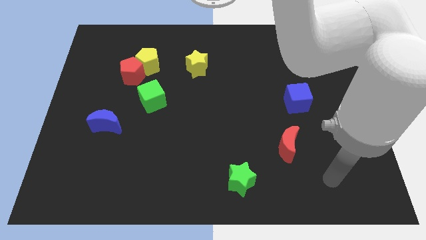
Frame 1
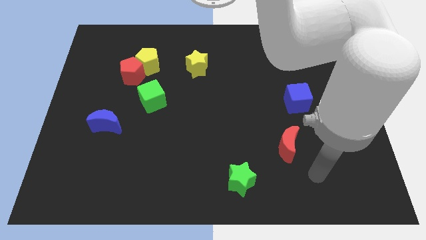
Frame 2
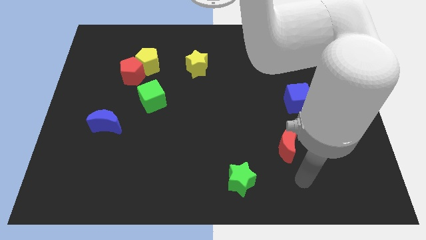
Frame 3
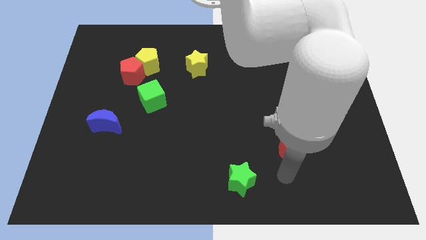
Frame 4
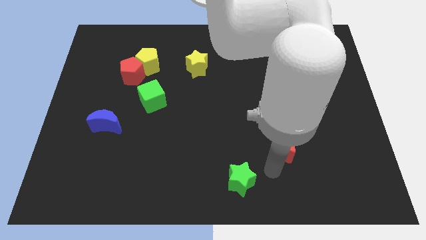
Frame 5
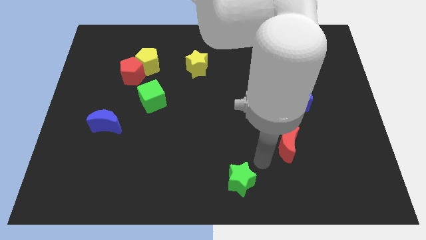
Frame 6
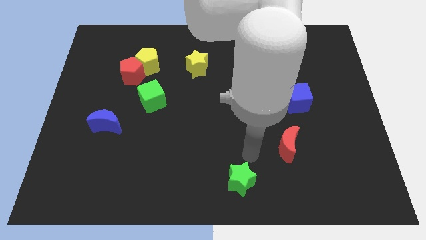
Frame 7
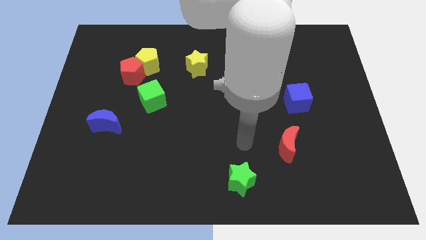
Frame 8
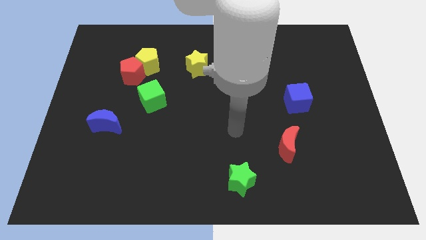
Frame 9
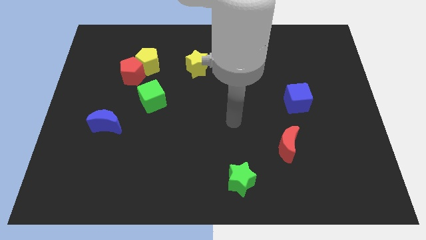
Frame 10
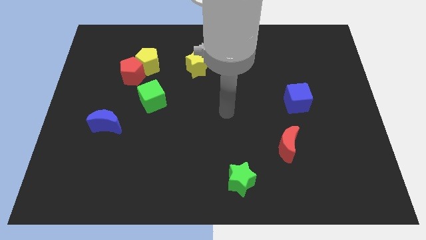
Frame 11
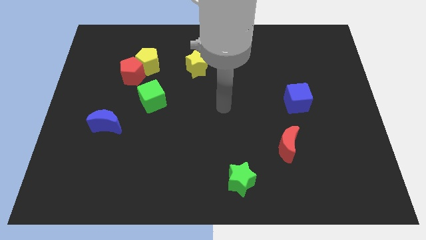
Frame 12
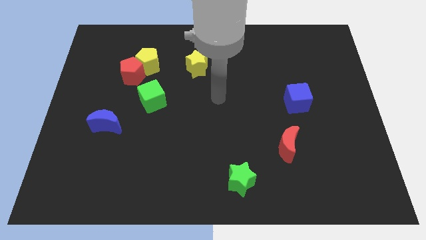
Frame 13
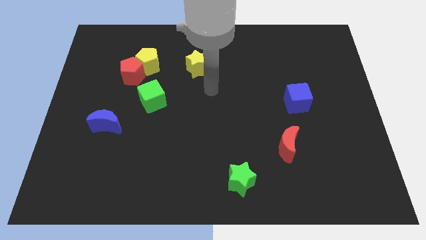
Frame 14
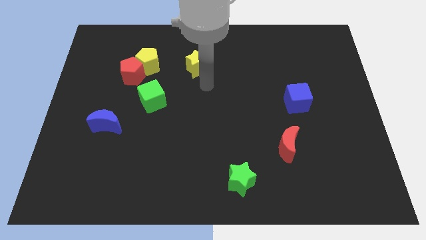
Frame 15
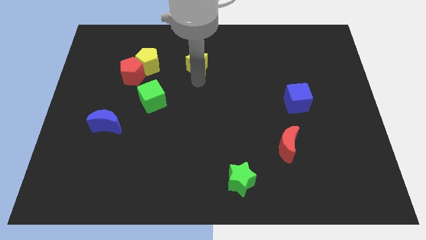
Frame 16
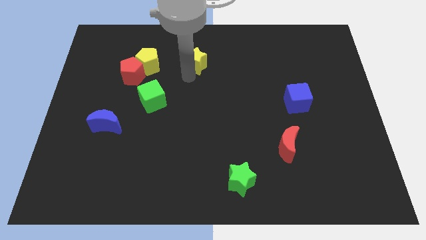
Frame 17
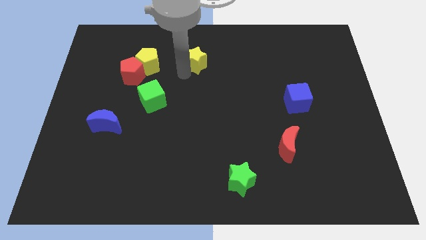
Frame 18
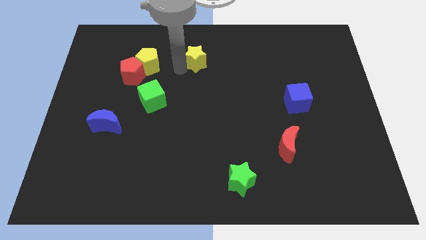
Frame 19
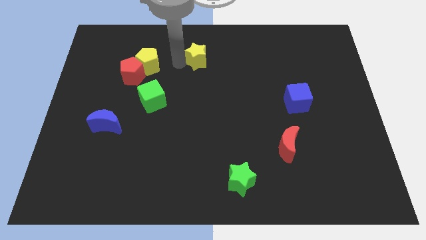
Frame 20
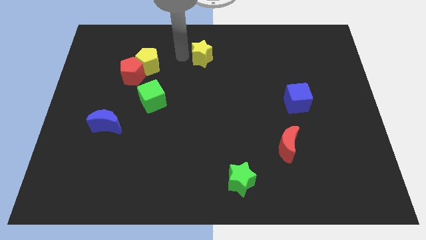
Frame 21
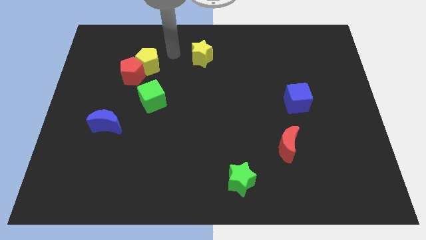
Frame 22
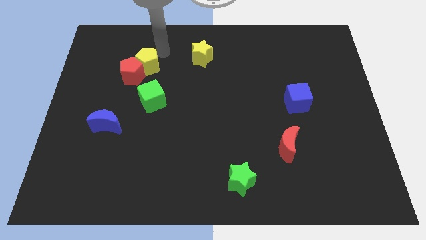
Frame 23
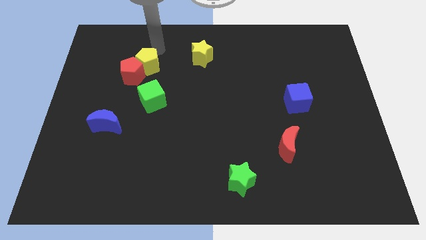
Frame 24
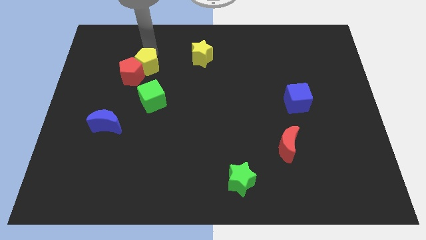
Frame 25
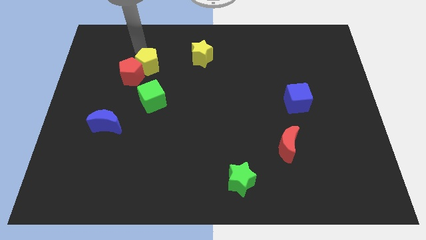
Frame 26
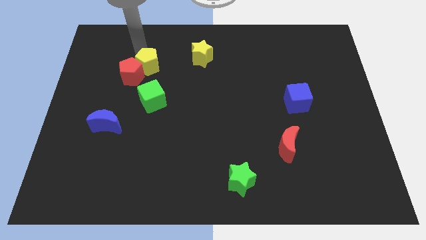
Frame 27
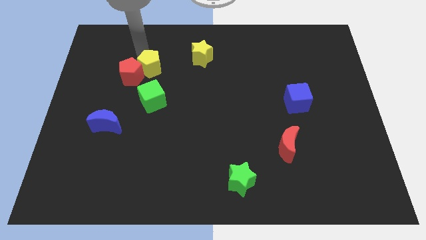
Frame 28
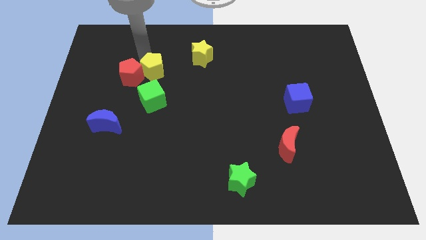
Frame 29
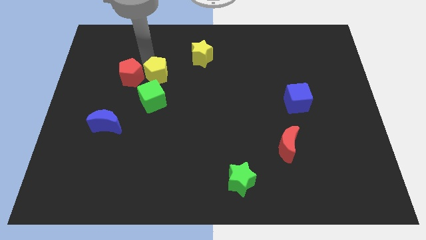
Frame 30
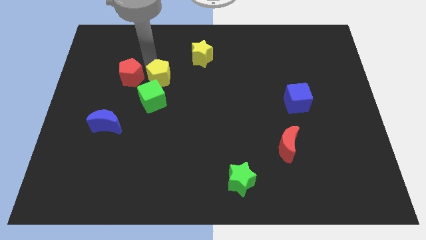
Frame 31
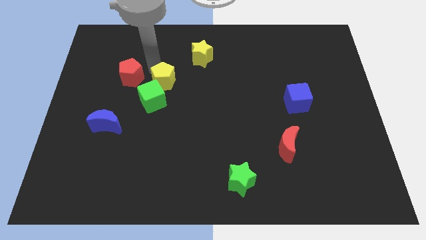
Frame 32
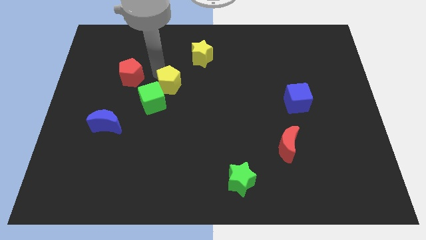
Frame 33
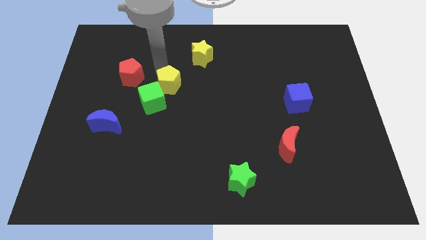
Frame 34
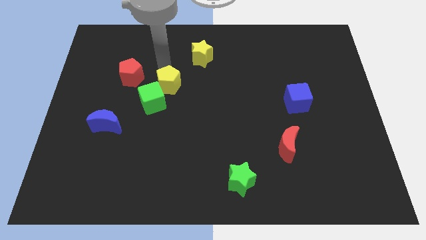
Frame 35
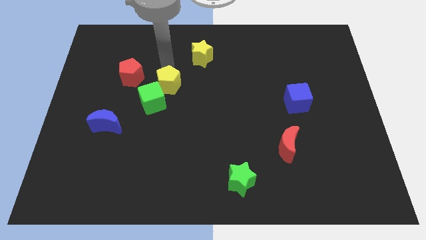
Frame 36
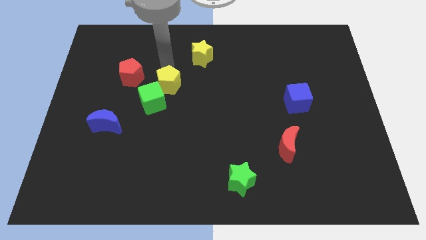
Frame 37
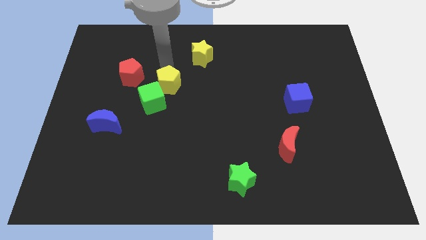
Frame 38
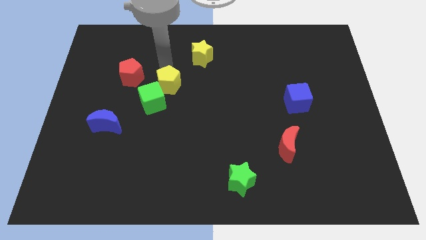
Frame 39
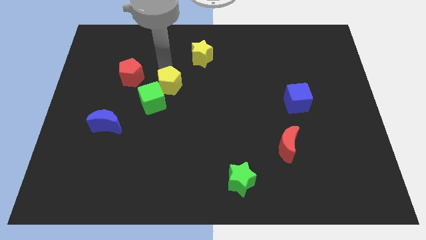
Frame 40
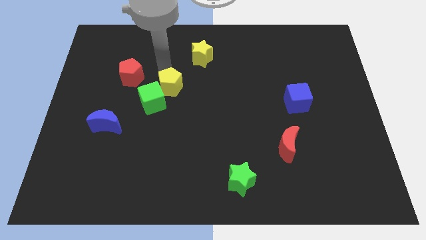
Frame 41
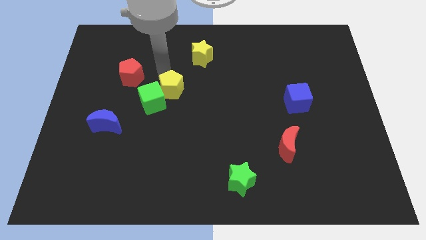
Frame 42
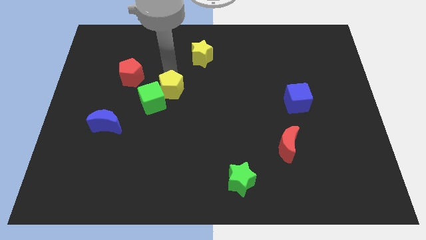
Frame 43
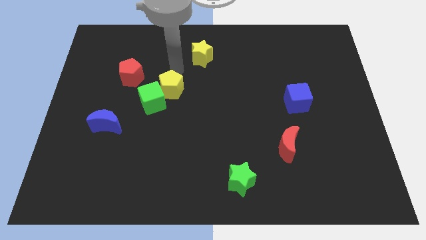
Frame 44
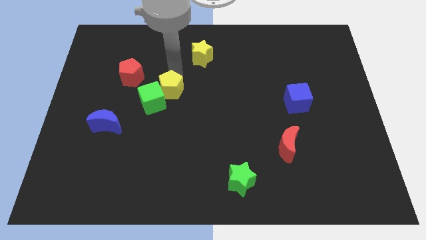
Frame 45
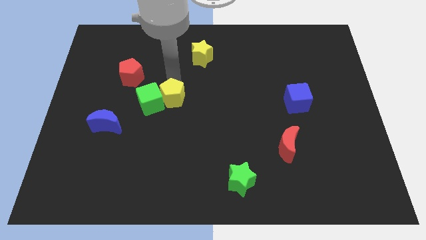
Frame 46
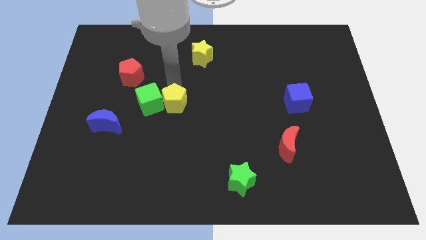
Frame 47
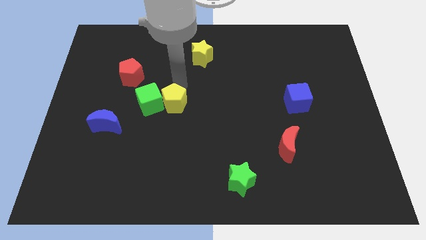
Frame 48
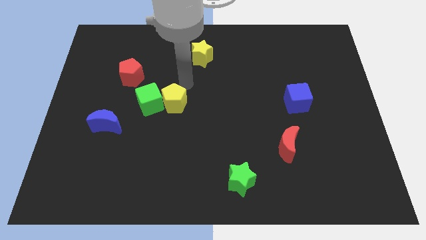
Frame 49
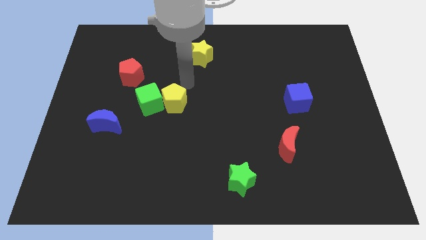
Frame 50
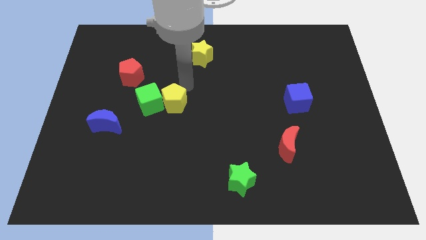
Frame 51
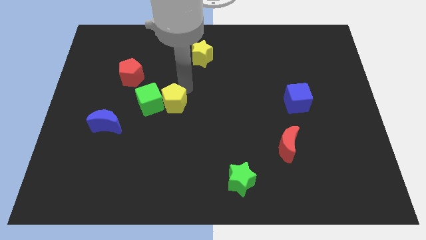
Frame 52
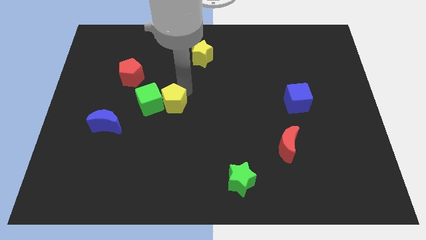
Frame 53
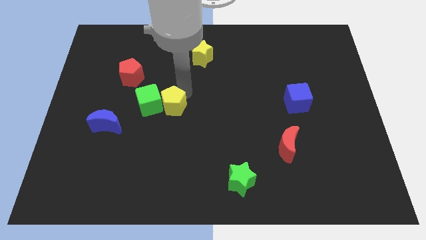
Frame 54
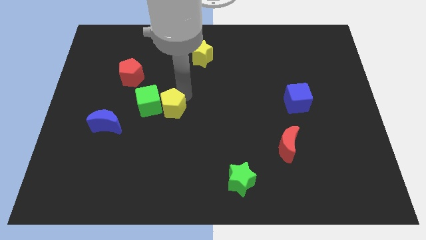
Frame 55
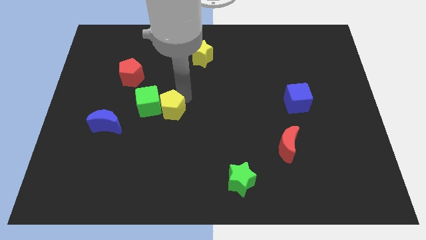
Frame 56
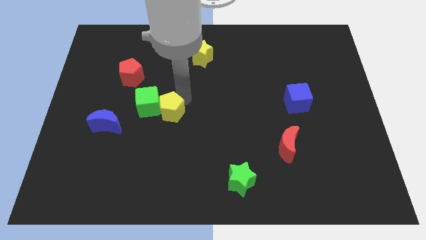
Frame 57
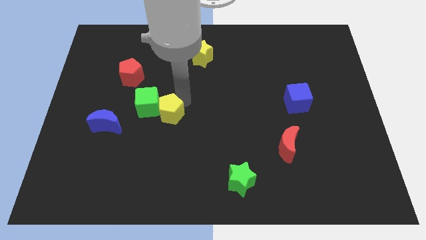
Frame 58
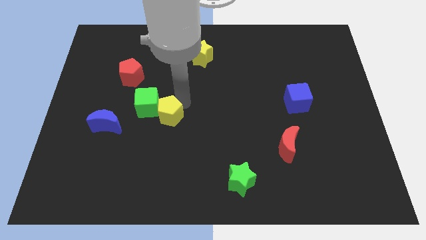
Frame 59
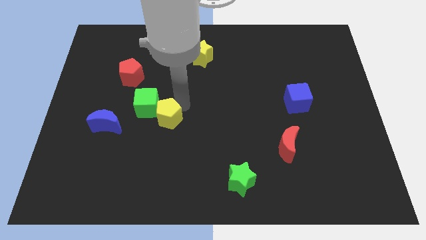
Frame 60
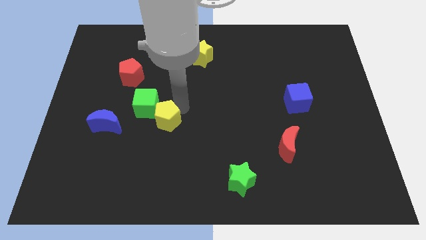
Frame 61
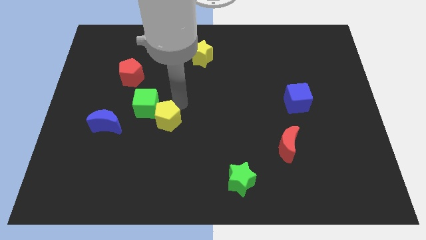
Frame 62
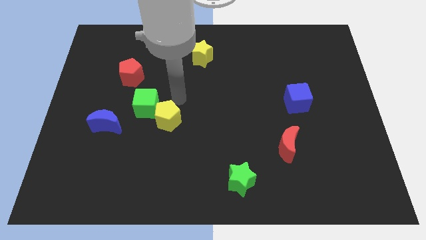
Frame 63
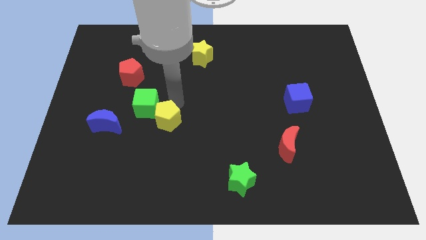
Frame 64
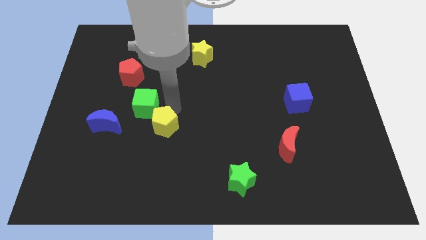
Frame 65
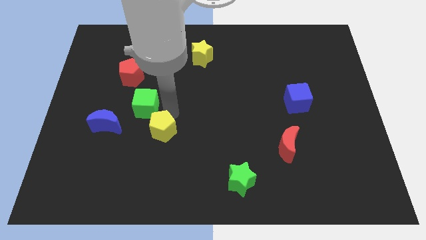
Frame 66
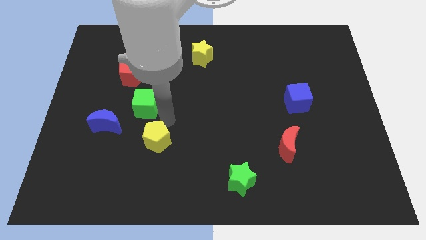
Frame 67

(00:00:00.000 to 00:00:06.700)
move the yellow pentagon downwards

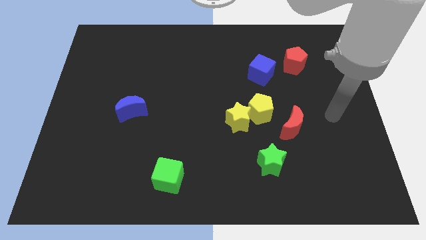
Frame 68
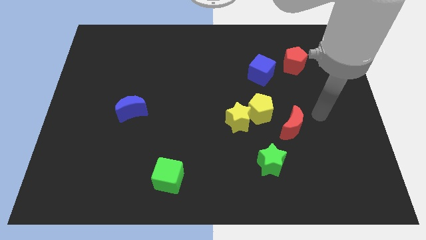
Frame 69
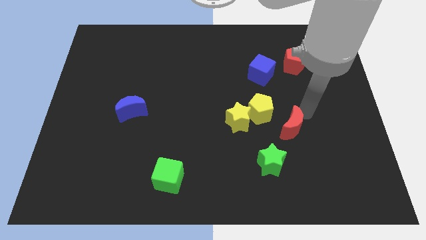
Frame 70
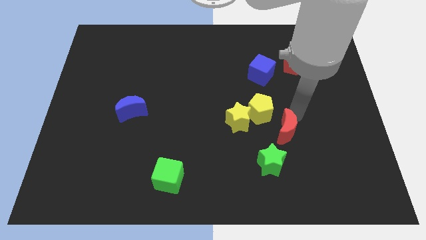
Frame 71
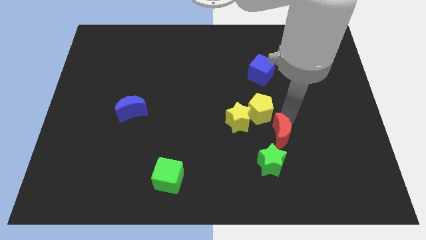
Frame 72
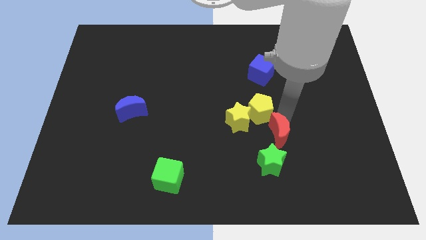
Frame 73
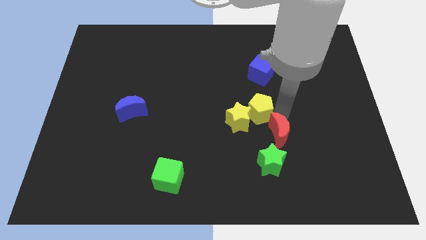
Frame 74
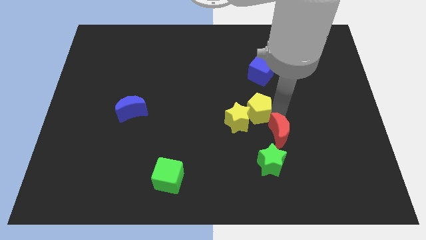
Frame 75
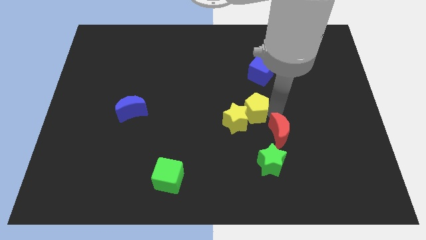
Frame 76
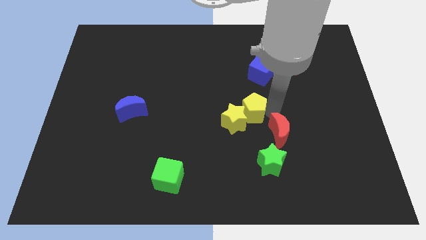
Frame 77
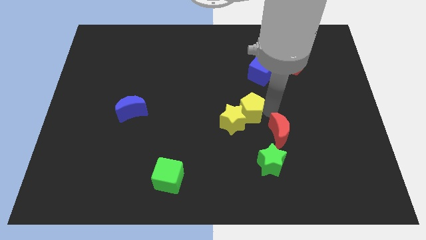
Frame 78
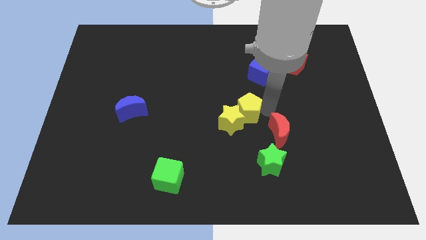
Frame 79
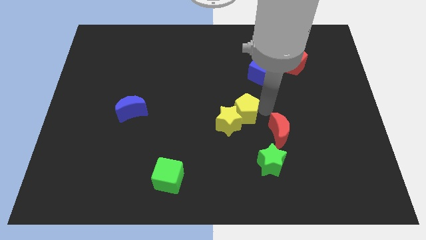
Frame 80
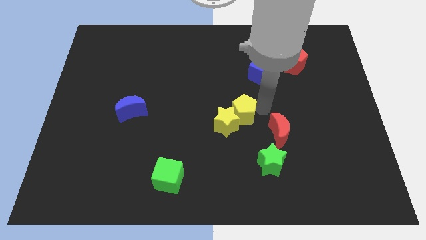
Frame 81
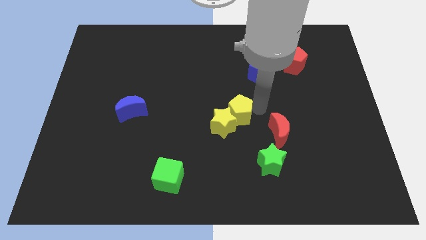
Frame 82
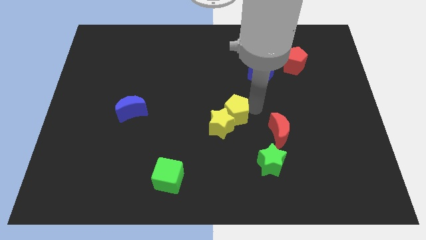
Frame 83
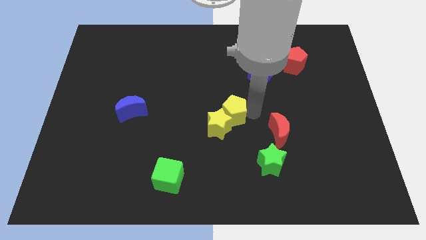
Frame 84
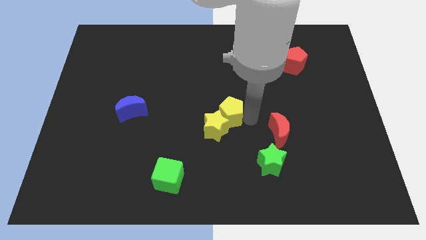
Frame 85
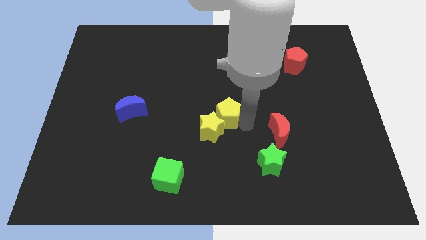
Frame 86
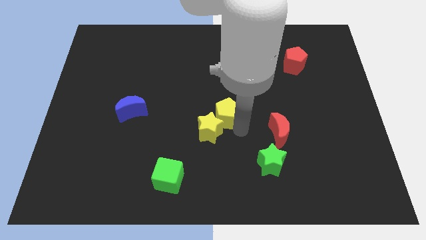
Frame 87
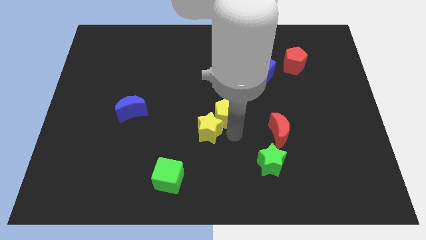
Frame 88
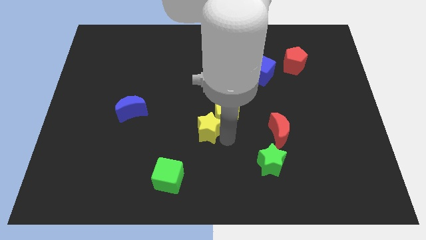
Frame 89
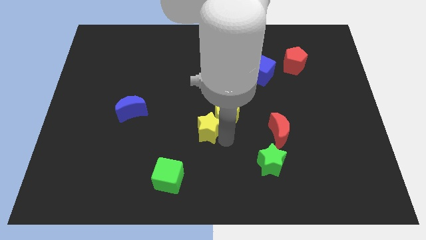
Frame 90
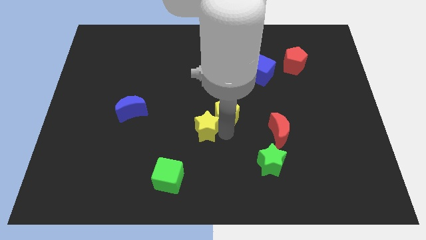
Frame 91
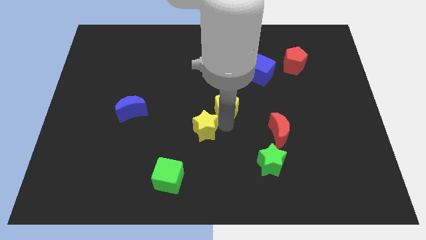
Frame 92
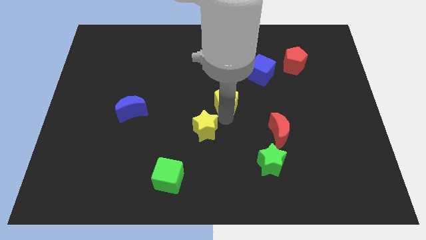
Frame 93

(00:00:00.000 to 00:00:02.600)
slide the yellow pentagon upwards and then left slightly
